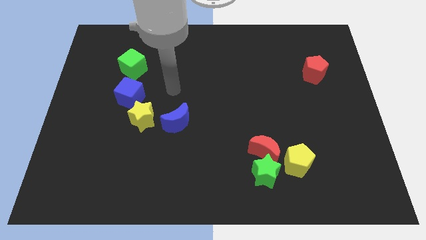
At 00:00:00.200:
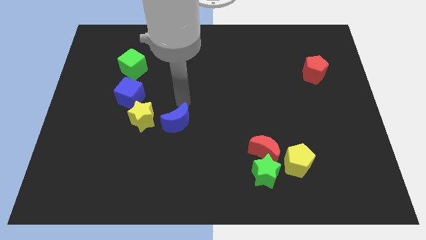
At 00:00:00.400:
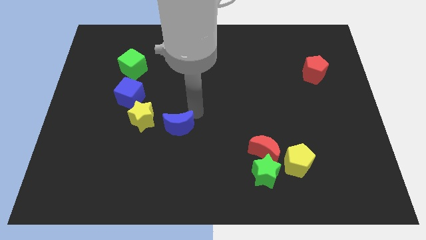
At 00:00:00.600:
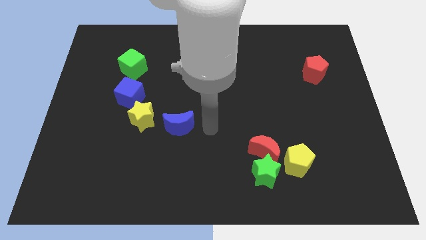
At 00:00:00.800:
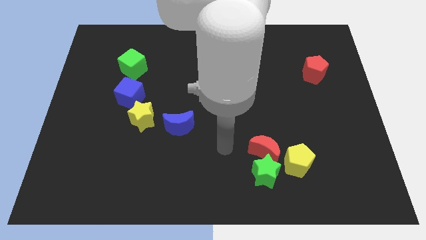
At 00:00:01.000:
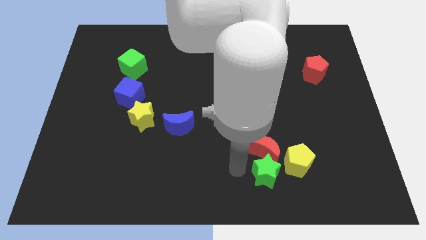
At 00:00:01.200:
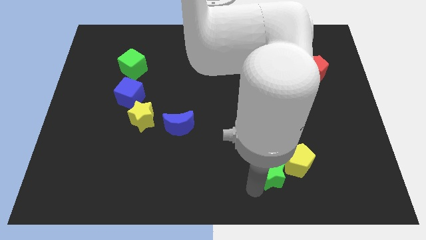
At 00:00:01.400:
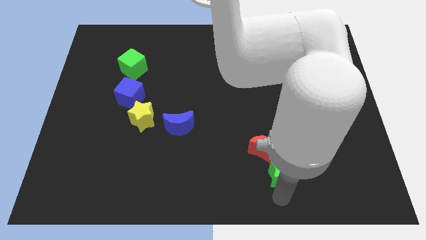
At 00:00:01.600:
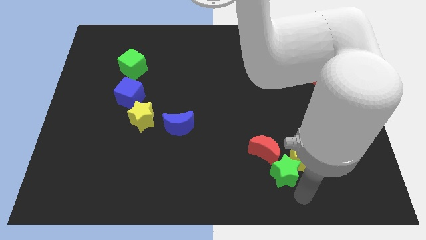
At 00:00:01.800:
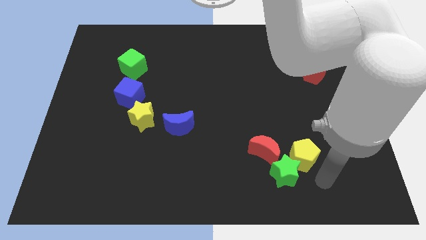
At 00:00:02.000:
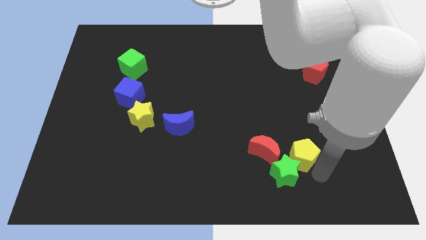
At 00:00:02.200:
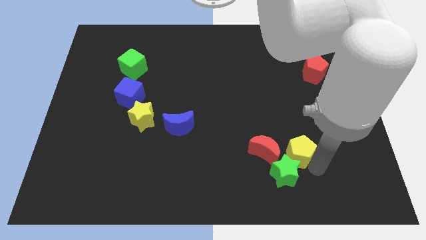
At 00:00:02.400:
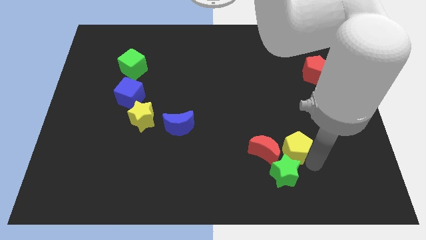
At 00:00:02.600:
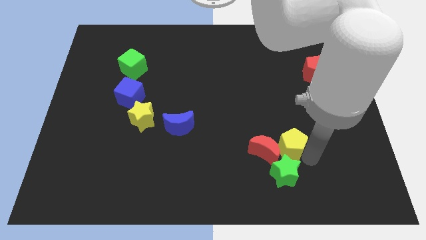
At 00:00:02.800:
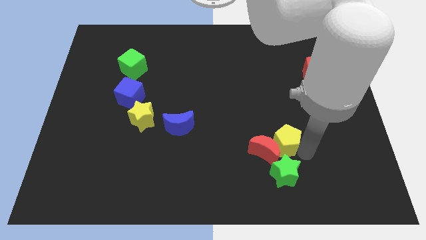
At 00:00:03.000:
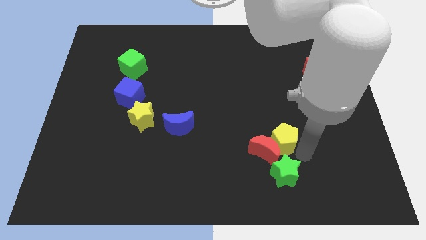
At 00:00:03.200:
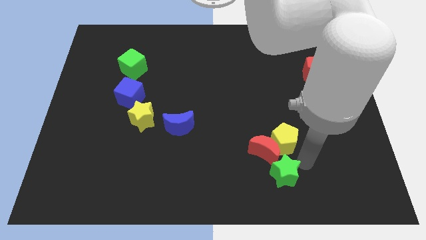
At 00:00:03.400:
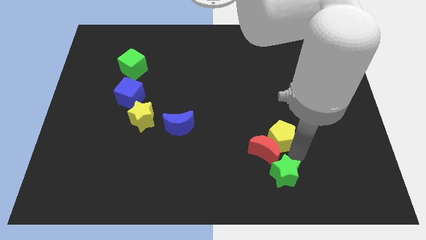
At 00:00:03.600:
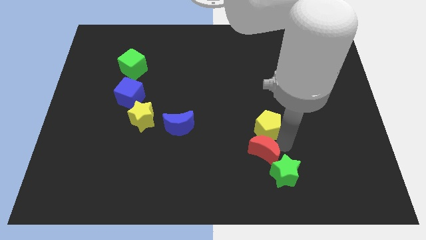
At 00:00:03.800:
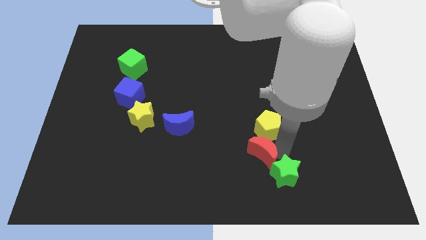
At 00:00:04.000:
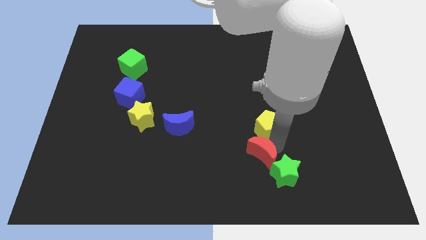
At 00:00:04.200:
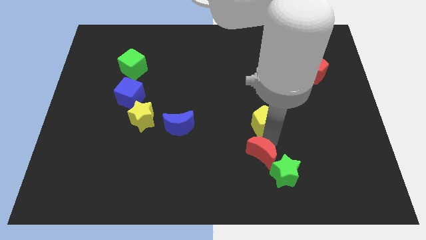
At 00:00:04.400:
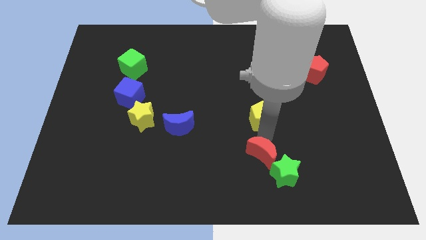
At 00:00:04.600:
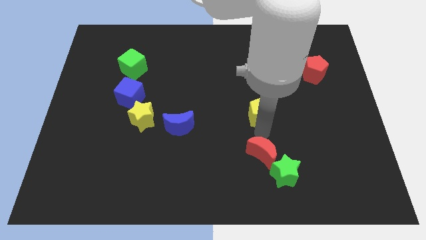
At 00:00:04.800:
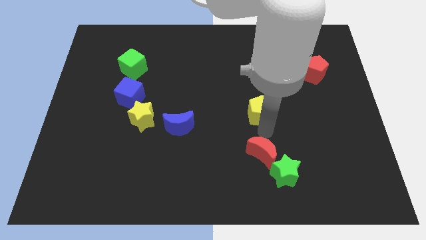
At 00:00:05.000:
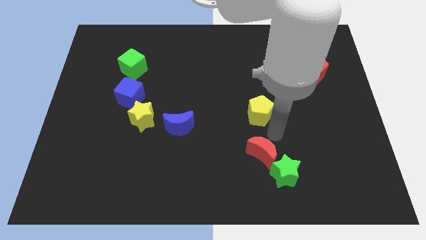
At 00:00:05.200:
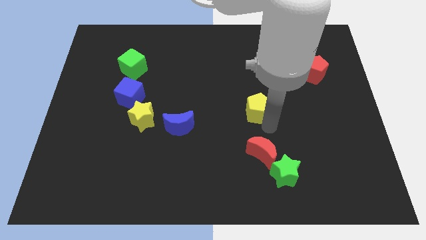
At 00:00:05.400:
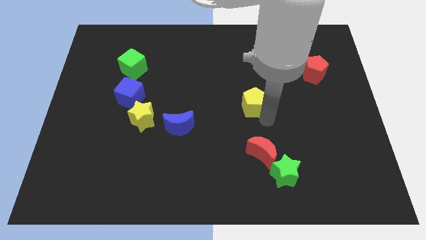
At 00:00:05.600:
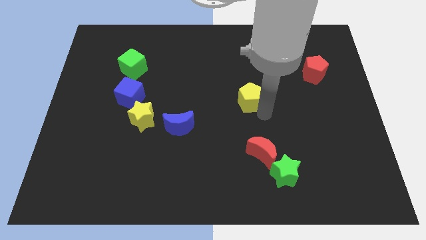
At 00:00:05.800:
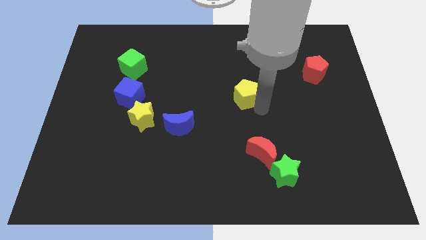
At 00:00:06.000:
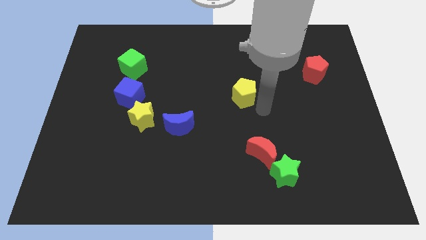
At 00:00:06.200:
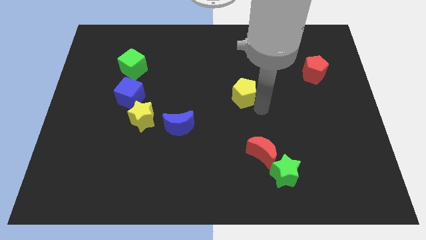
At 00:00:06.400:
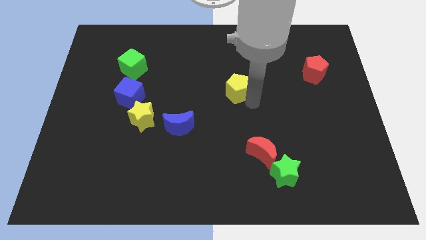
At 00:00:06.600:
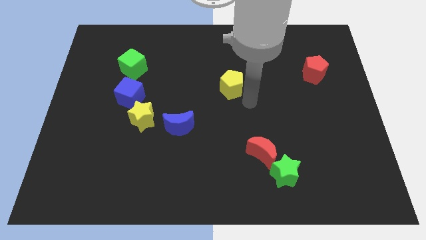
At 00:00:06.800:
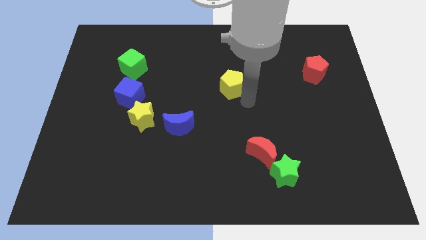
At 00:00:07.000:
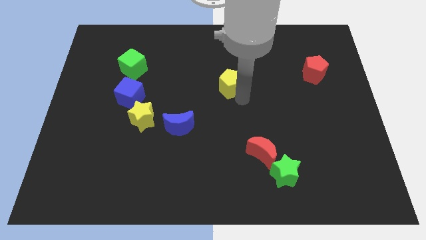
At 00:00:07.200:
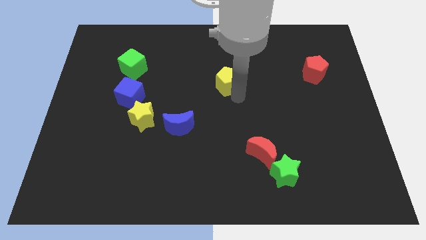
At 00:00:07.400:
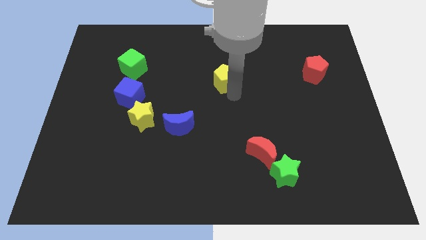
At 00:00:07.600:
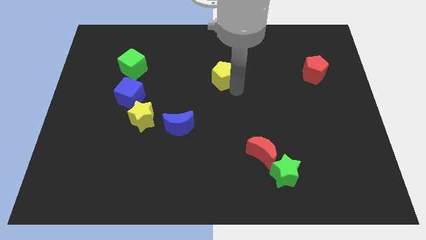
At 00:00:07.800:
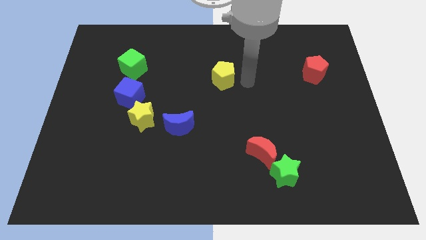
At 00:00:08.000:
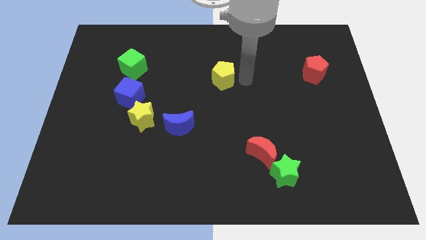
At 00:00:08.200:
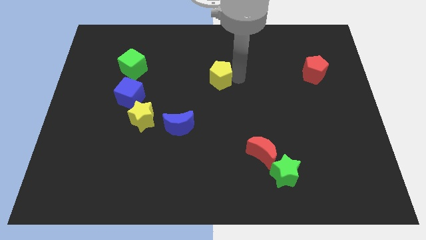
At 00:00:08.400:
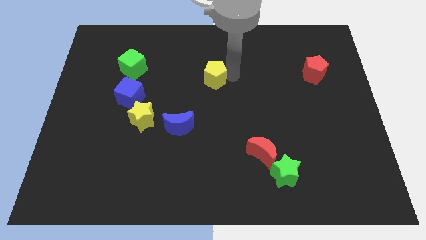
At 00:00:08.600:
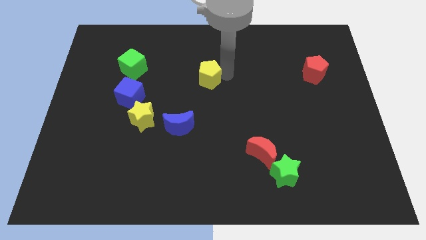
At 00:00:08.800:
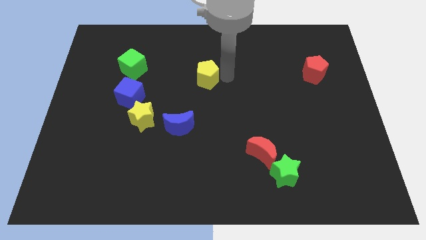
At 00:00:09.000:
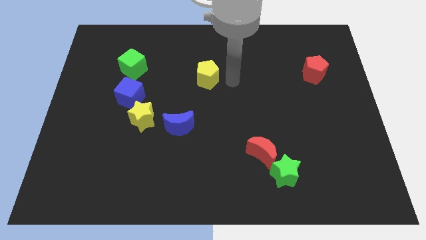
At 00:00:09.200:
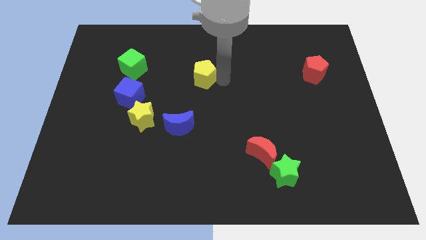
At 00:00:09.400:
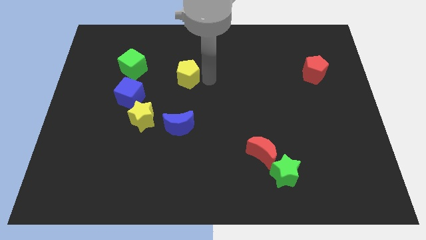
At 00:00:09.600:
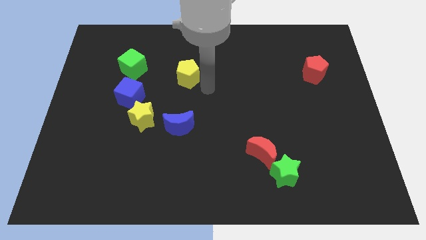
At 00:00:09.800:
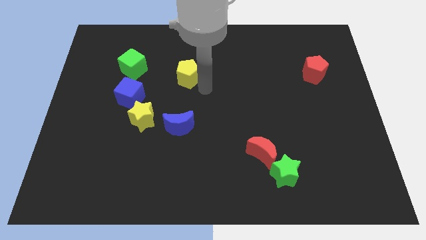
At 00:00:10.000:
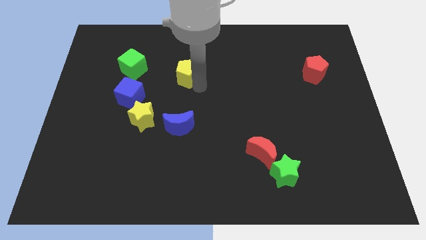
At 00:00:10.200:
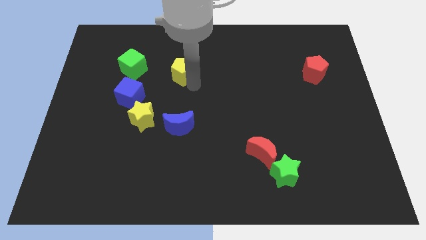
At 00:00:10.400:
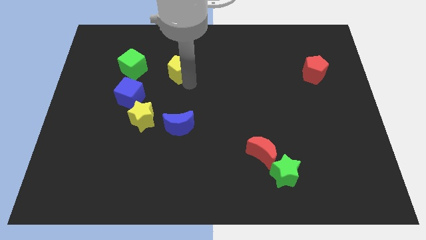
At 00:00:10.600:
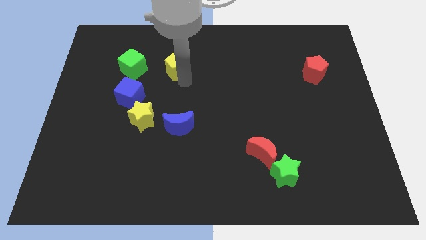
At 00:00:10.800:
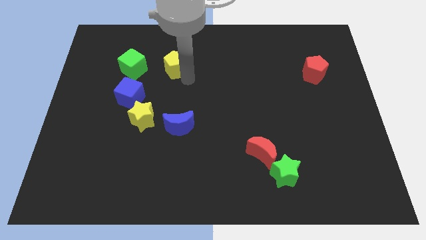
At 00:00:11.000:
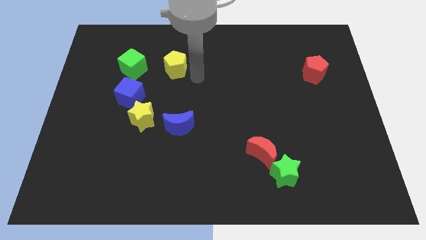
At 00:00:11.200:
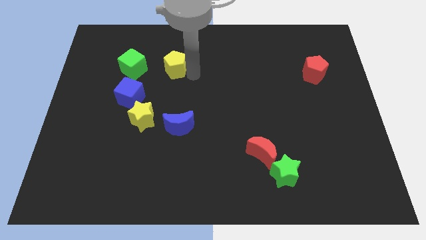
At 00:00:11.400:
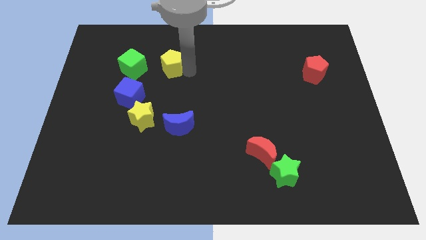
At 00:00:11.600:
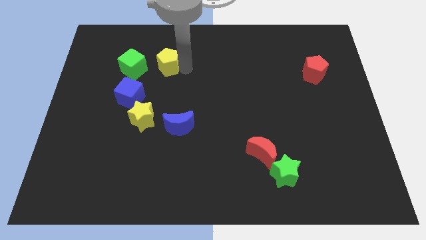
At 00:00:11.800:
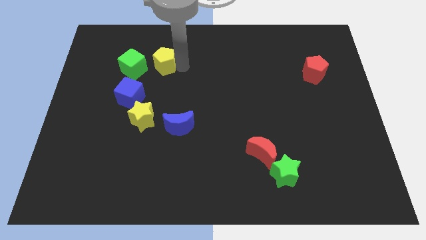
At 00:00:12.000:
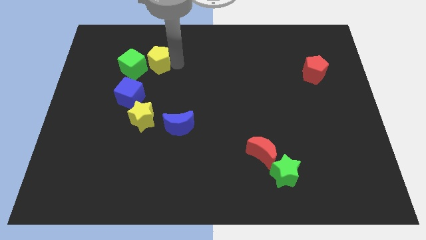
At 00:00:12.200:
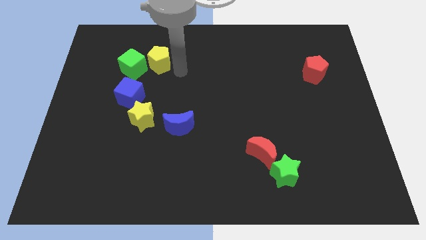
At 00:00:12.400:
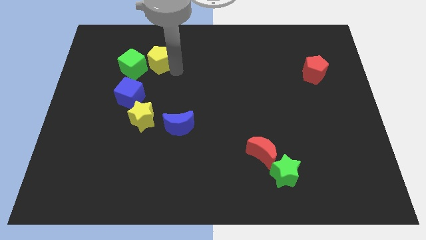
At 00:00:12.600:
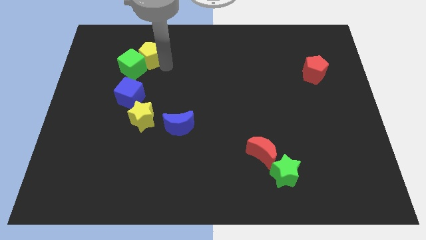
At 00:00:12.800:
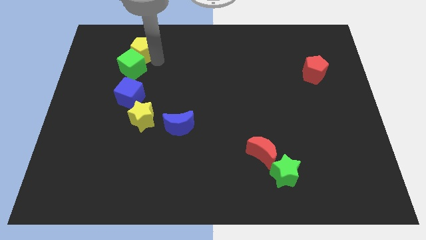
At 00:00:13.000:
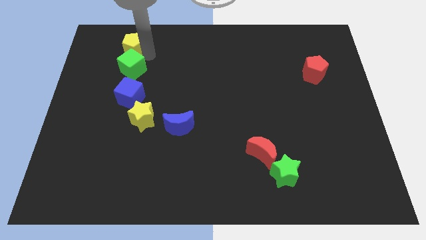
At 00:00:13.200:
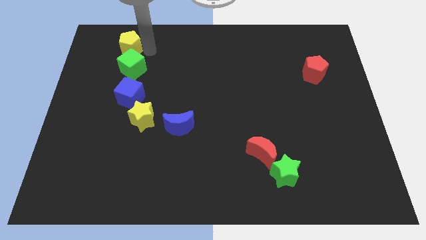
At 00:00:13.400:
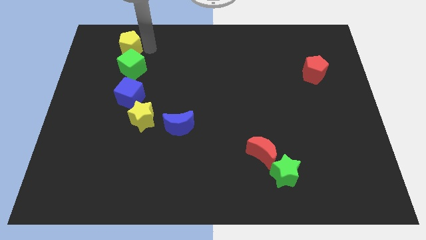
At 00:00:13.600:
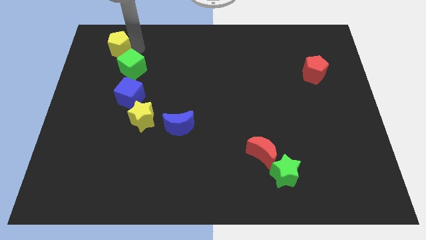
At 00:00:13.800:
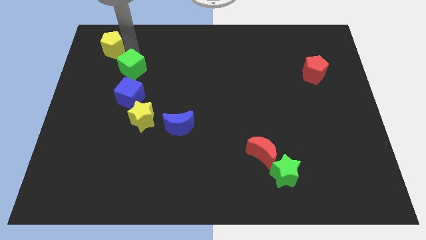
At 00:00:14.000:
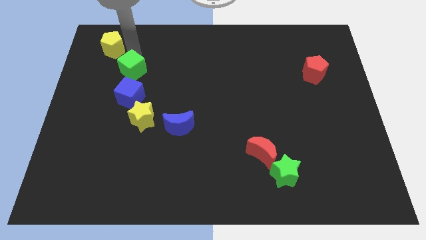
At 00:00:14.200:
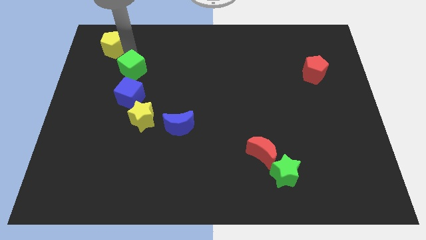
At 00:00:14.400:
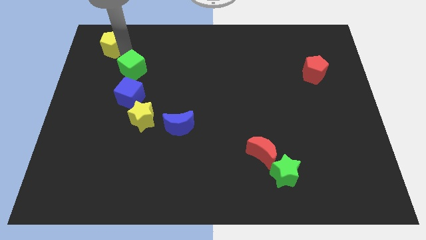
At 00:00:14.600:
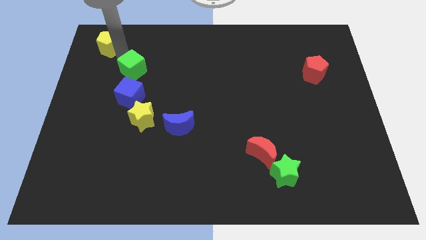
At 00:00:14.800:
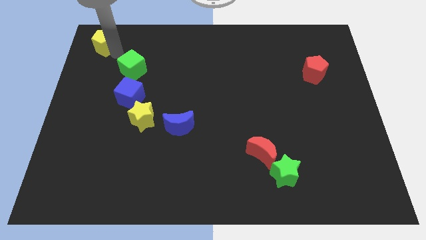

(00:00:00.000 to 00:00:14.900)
slide the yellow pentagon to the upper left corner
